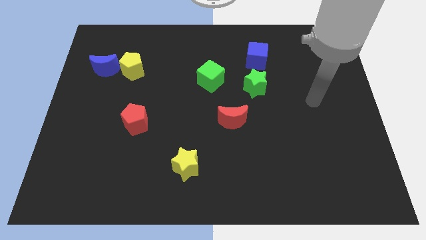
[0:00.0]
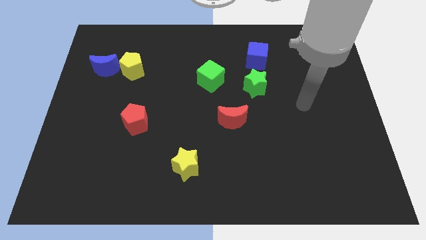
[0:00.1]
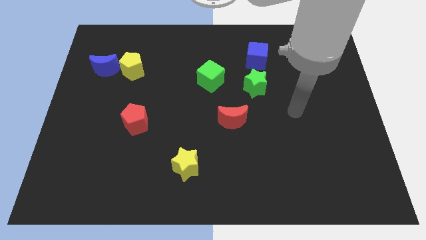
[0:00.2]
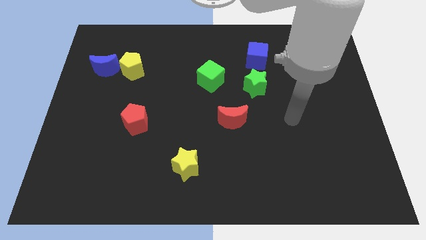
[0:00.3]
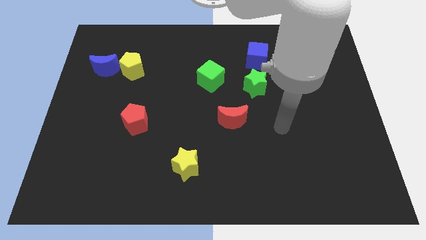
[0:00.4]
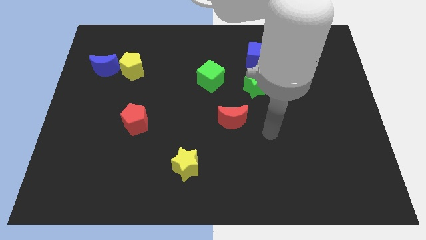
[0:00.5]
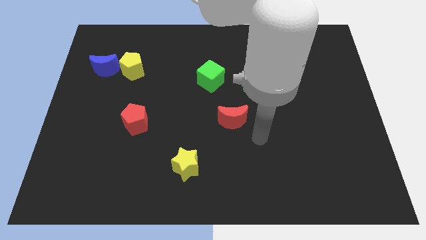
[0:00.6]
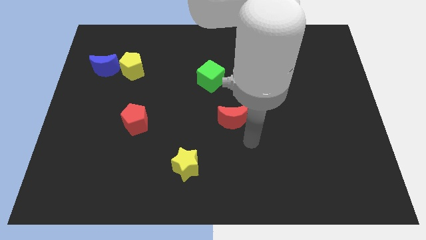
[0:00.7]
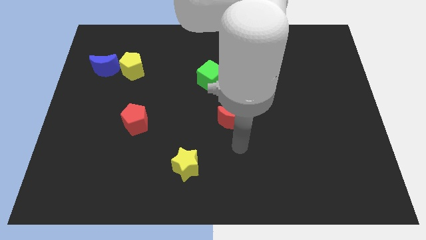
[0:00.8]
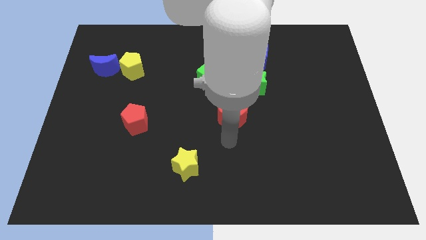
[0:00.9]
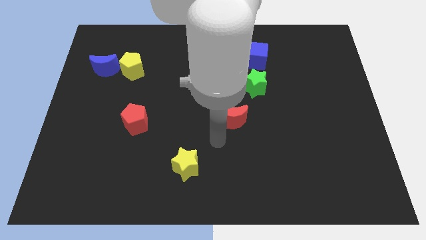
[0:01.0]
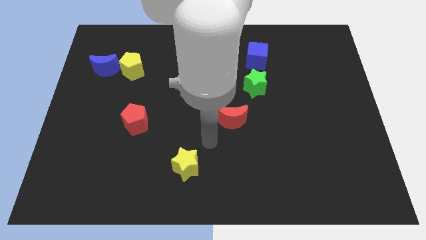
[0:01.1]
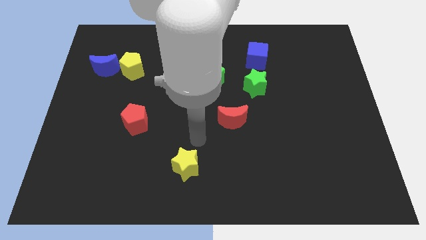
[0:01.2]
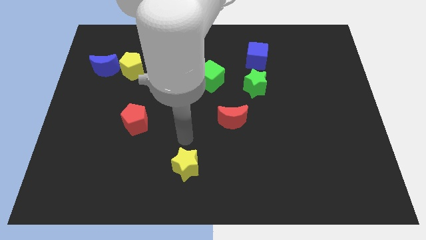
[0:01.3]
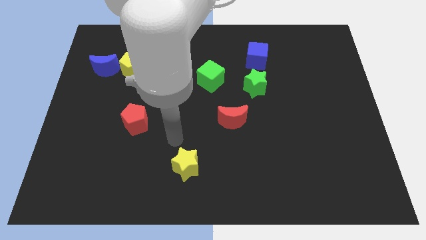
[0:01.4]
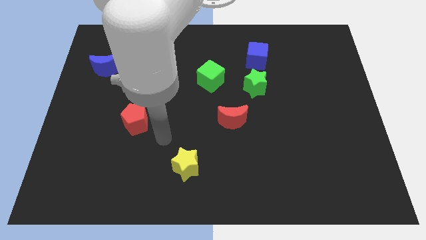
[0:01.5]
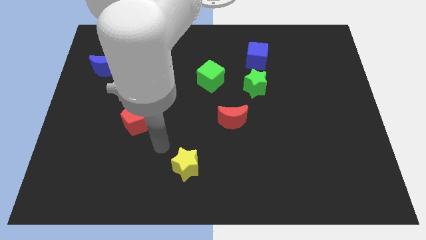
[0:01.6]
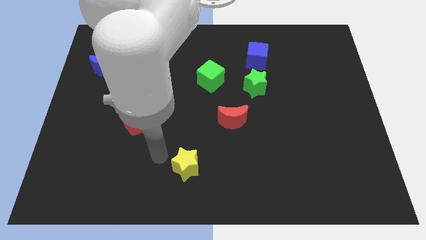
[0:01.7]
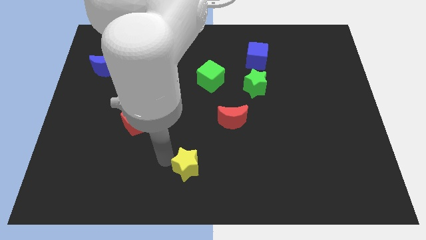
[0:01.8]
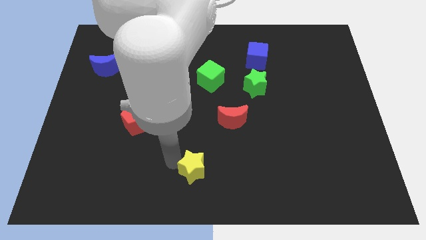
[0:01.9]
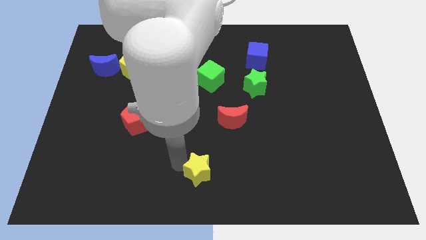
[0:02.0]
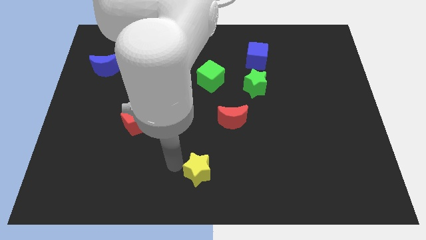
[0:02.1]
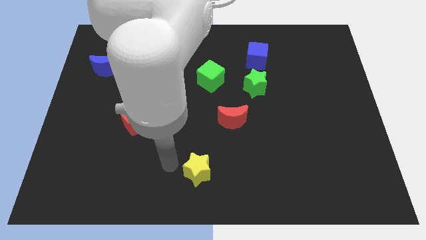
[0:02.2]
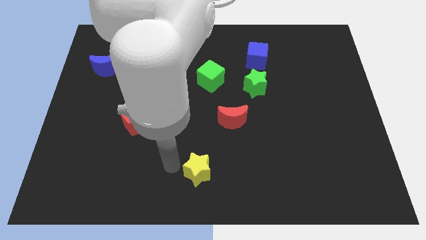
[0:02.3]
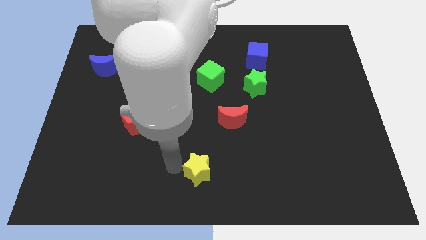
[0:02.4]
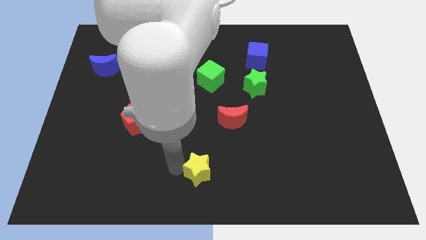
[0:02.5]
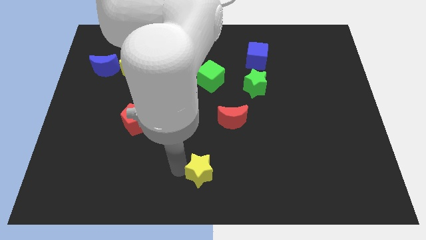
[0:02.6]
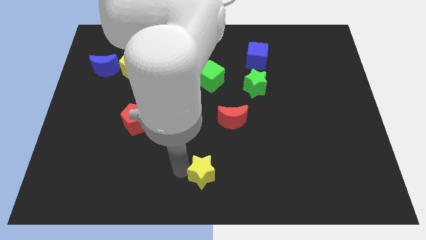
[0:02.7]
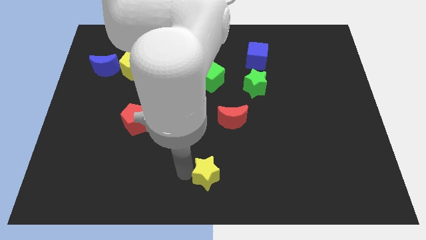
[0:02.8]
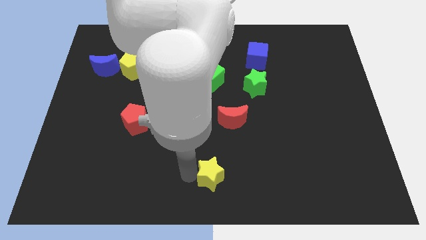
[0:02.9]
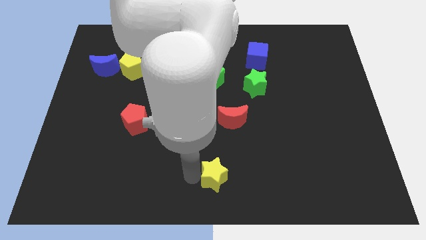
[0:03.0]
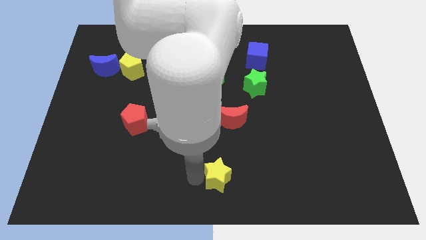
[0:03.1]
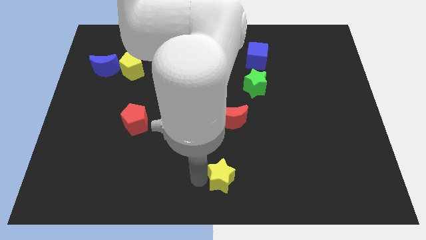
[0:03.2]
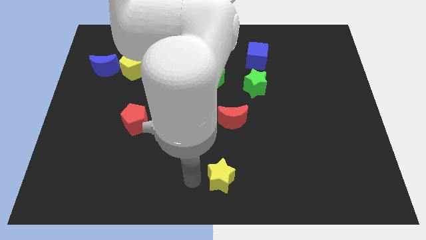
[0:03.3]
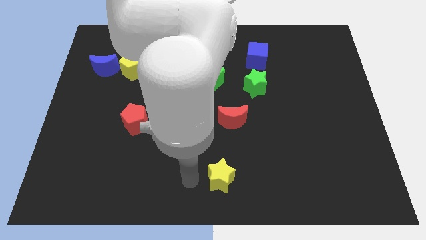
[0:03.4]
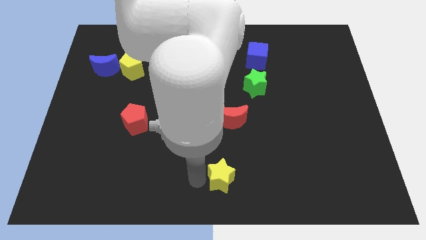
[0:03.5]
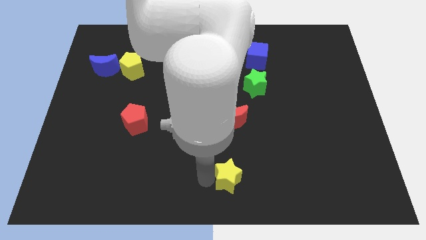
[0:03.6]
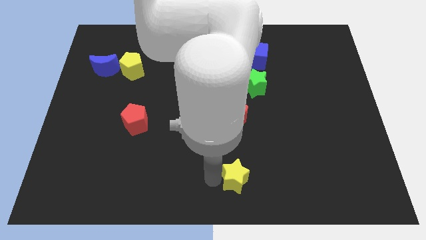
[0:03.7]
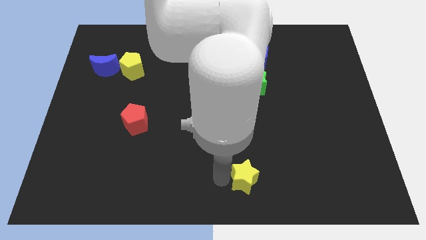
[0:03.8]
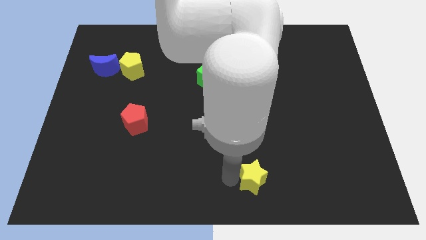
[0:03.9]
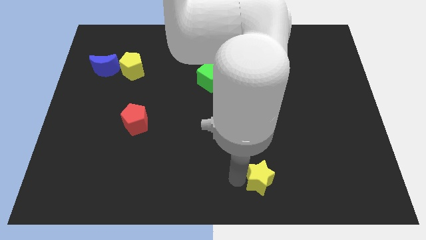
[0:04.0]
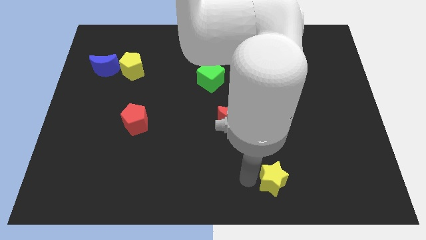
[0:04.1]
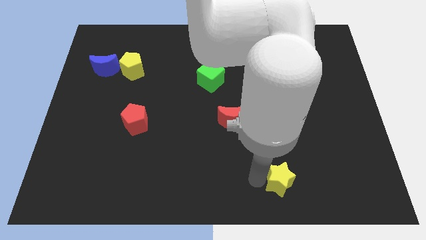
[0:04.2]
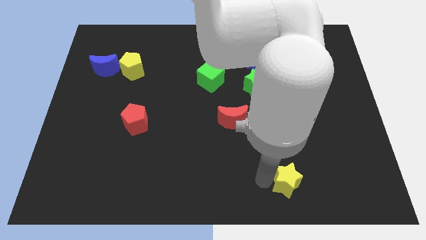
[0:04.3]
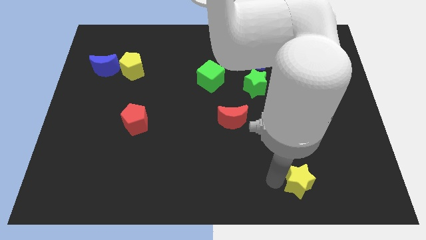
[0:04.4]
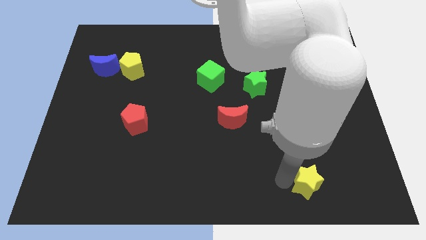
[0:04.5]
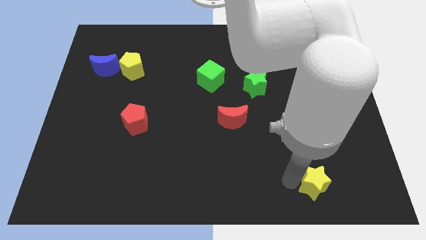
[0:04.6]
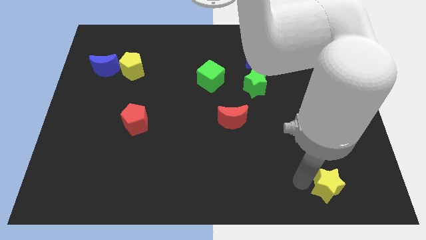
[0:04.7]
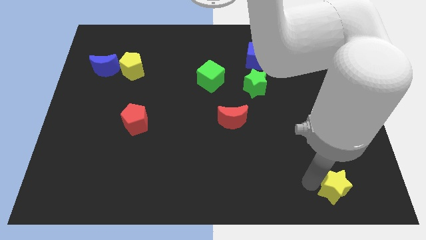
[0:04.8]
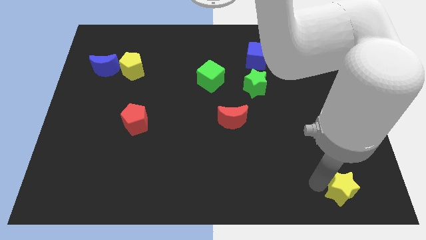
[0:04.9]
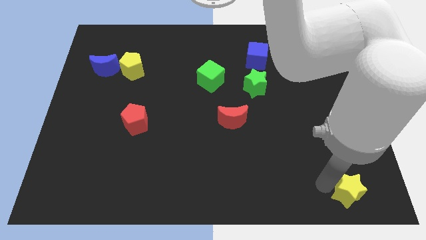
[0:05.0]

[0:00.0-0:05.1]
move the yellow star to the bottom right corner

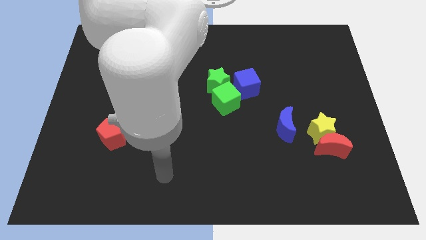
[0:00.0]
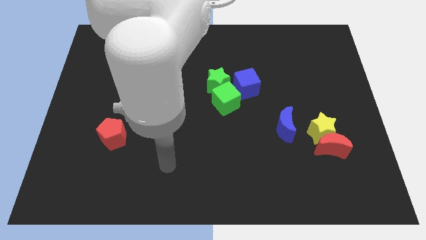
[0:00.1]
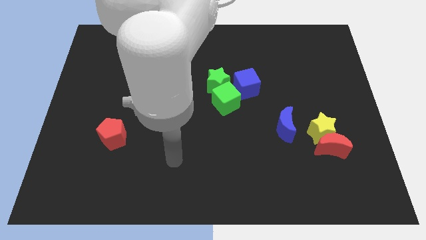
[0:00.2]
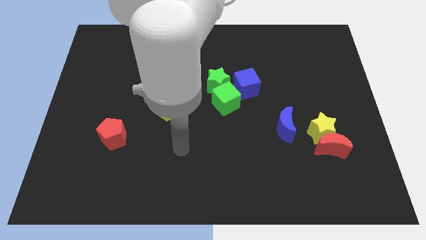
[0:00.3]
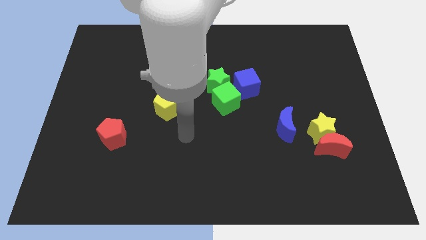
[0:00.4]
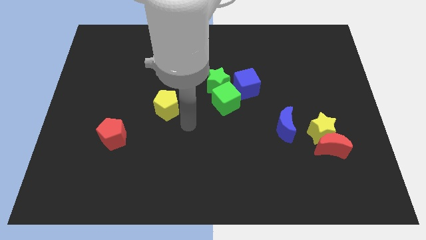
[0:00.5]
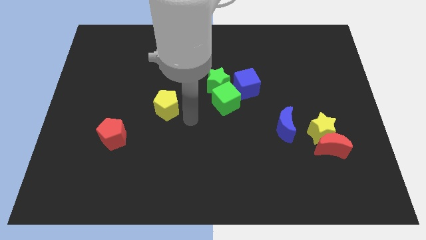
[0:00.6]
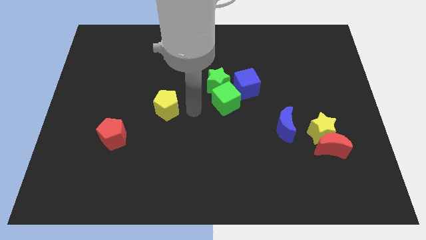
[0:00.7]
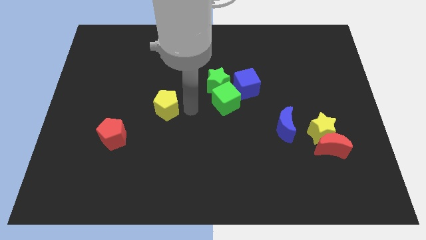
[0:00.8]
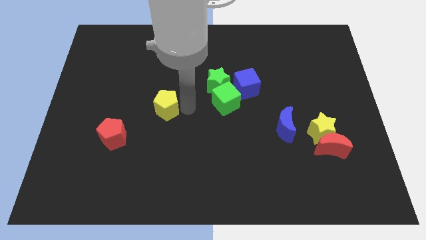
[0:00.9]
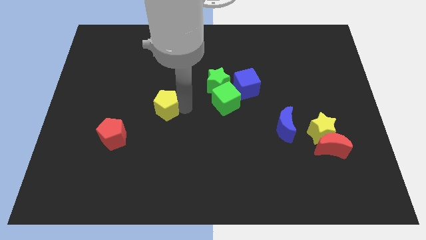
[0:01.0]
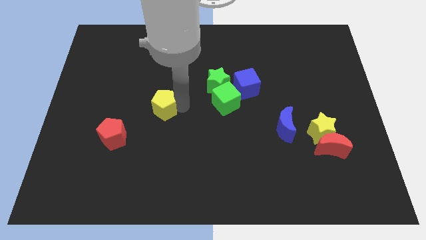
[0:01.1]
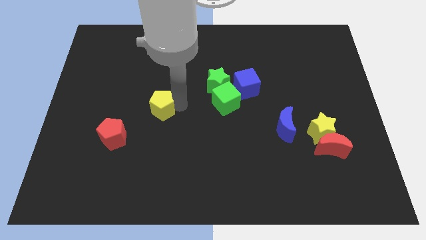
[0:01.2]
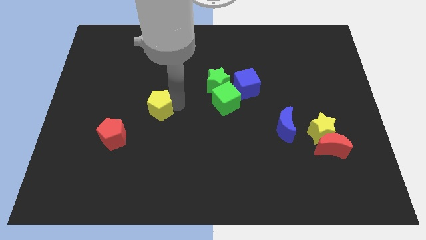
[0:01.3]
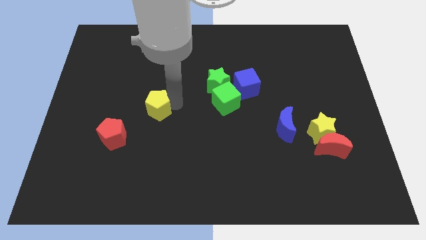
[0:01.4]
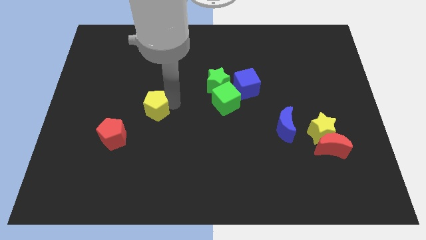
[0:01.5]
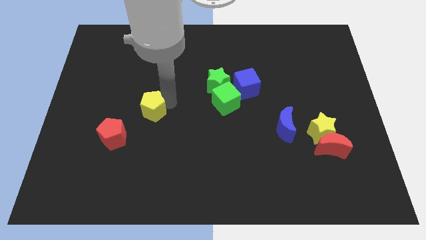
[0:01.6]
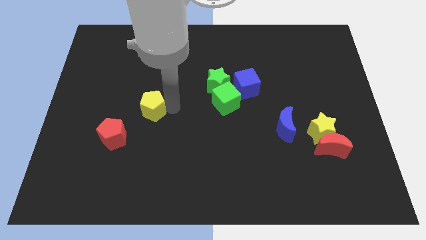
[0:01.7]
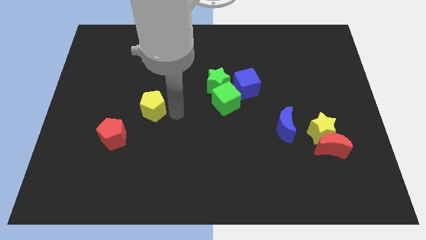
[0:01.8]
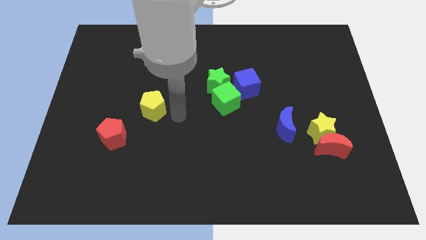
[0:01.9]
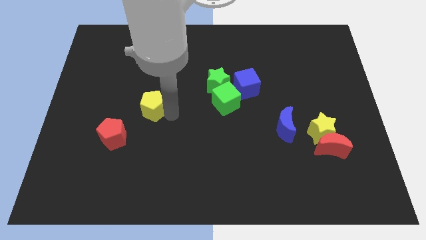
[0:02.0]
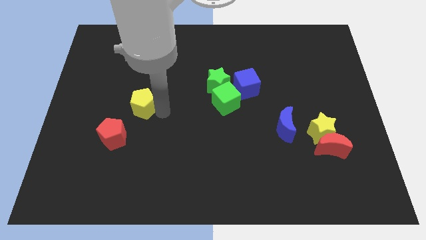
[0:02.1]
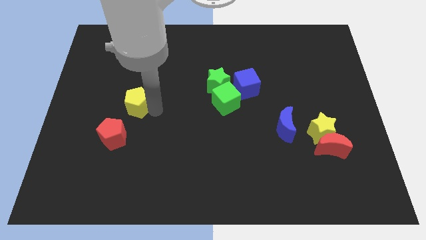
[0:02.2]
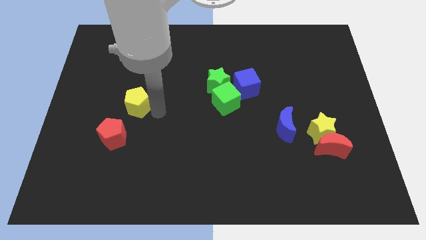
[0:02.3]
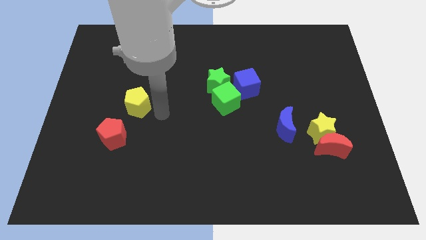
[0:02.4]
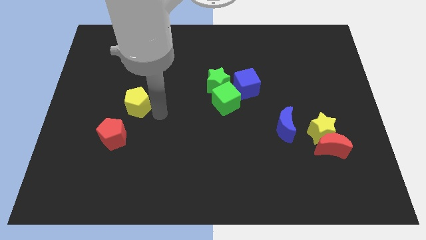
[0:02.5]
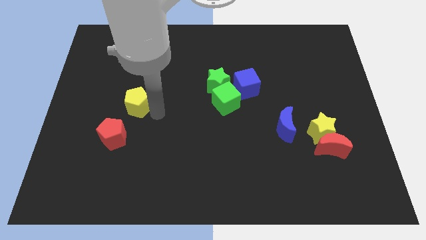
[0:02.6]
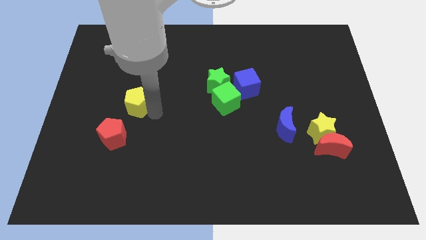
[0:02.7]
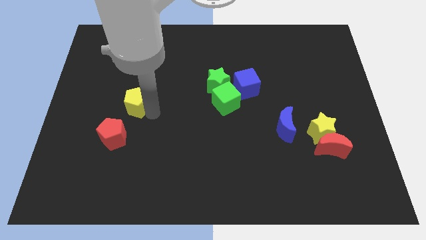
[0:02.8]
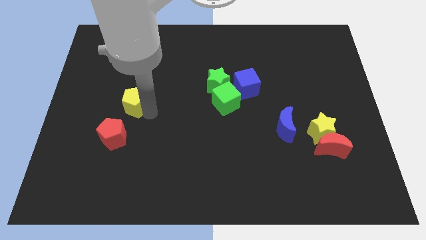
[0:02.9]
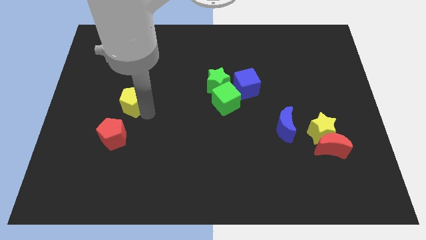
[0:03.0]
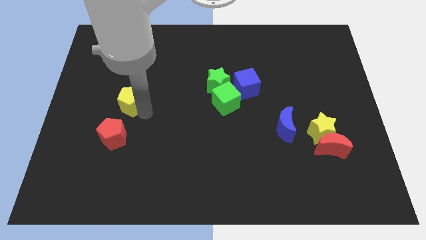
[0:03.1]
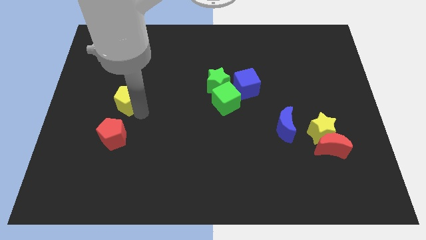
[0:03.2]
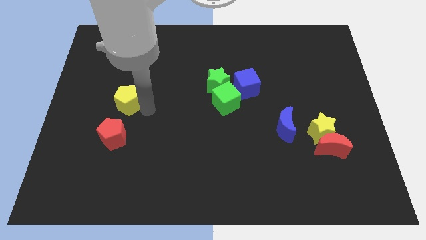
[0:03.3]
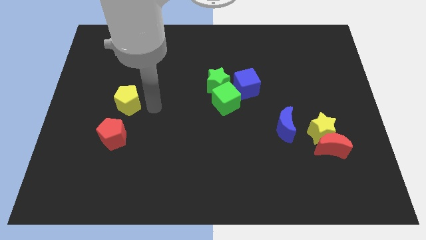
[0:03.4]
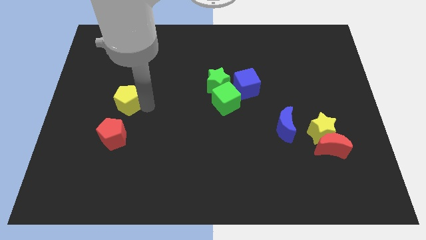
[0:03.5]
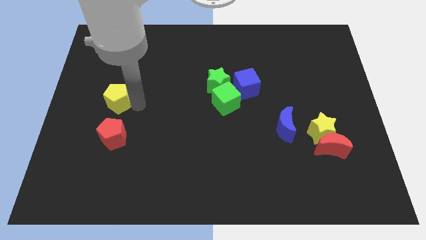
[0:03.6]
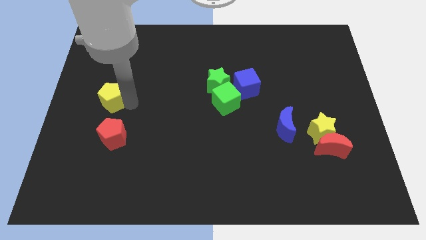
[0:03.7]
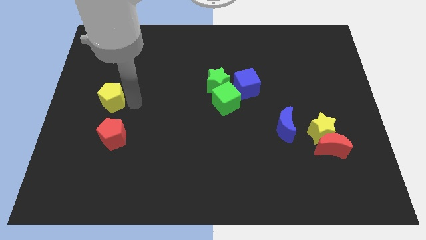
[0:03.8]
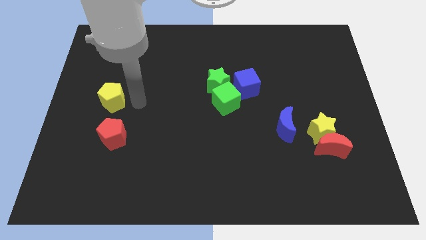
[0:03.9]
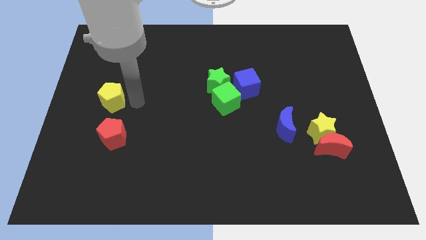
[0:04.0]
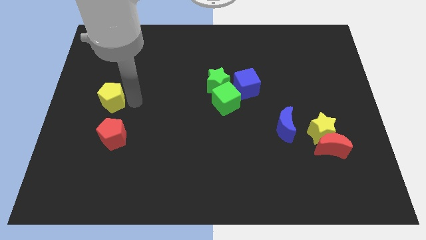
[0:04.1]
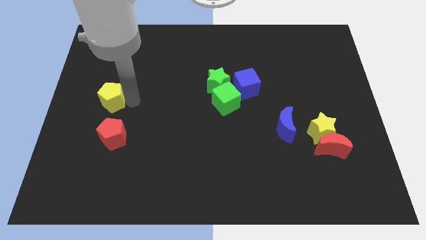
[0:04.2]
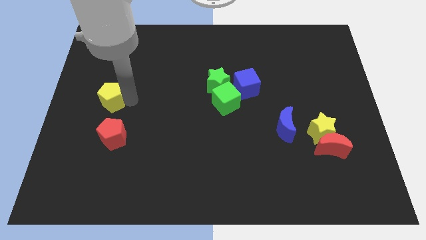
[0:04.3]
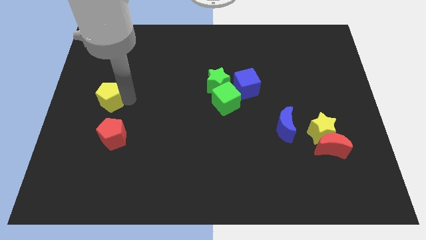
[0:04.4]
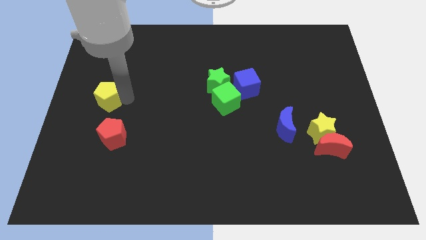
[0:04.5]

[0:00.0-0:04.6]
move the yellow pentagon to the left side of the board
